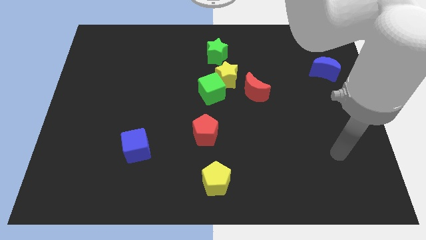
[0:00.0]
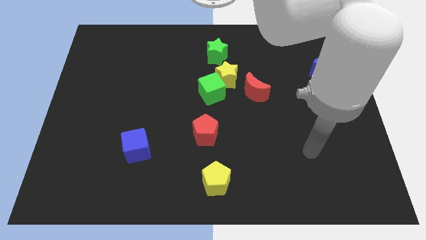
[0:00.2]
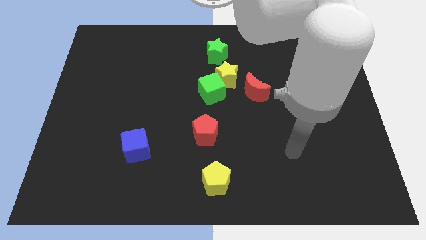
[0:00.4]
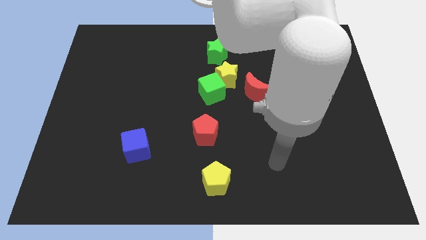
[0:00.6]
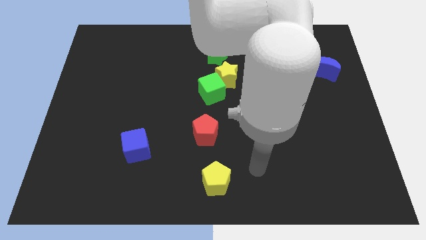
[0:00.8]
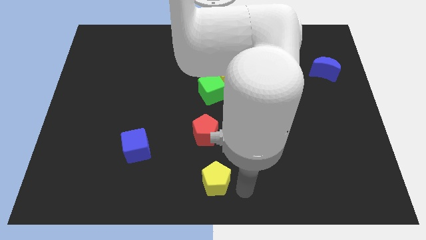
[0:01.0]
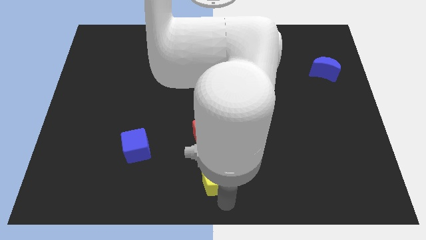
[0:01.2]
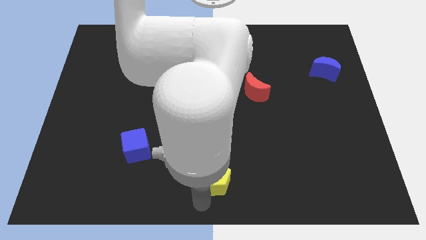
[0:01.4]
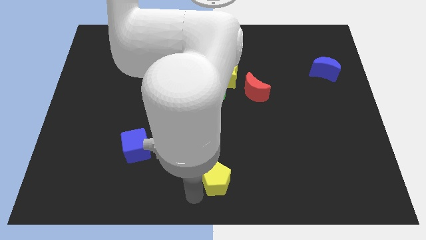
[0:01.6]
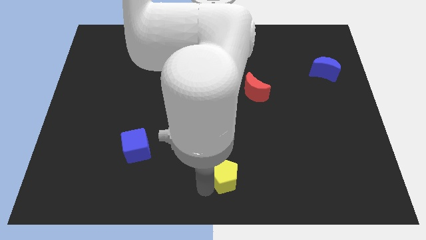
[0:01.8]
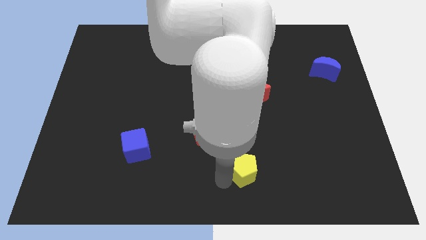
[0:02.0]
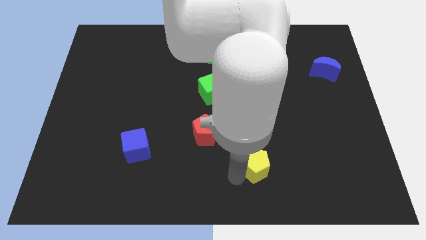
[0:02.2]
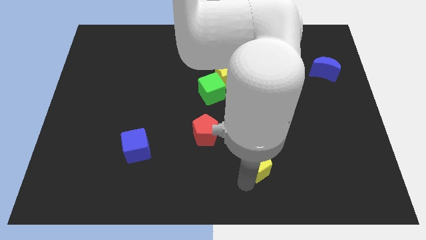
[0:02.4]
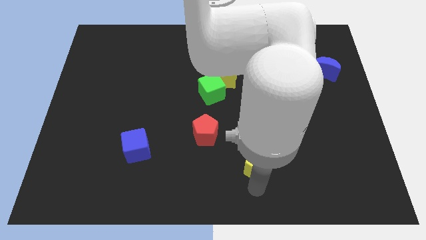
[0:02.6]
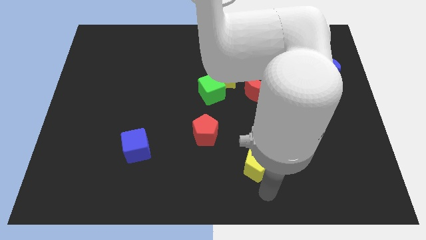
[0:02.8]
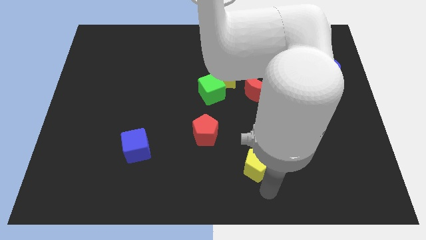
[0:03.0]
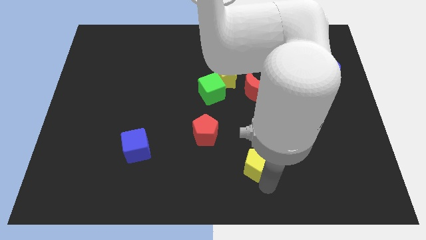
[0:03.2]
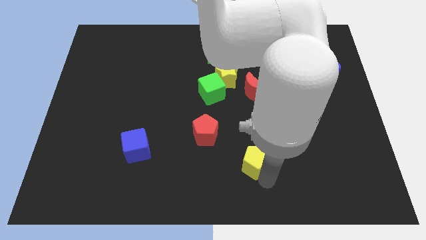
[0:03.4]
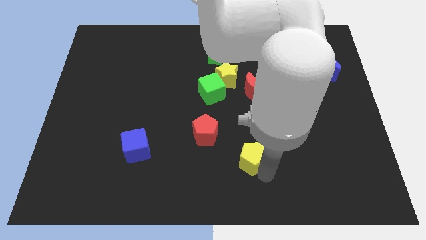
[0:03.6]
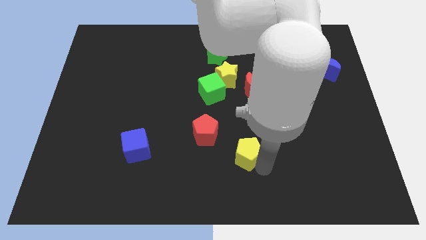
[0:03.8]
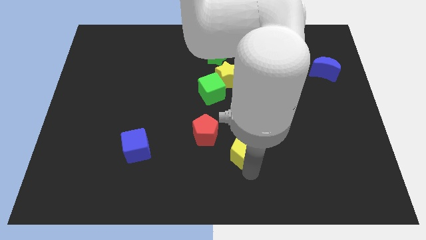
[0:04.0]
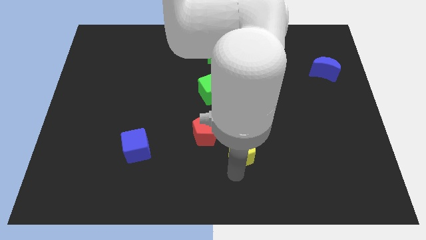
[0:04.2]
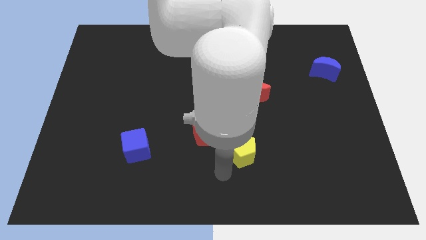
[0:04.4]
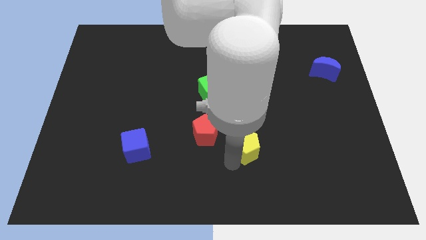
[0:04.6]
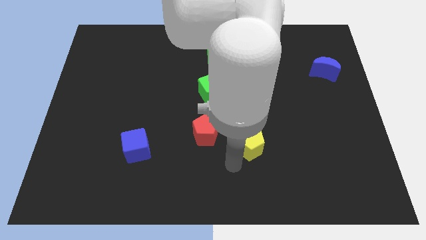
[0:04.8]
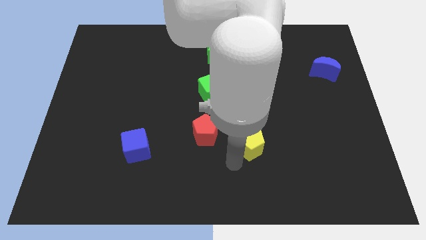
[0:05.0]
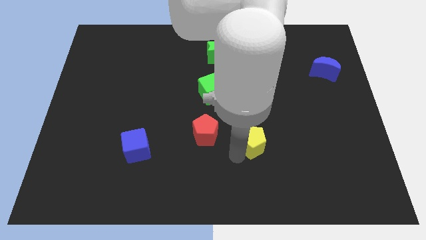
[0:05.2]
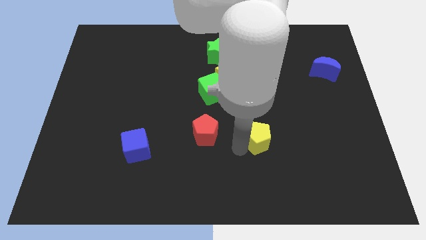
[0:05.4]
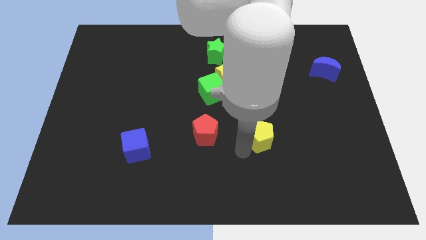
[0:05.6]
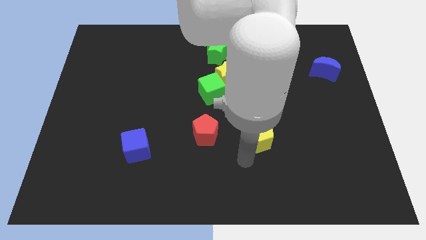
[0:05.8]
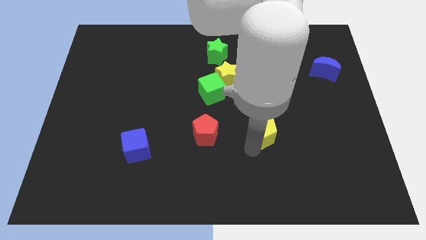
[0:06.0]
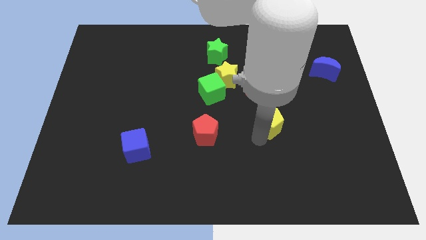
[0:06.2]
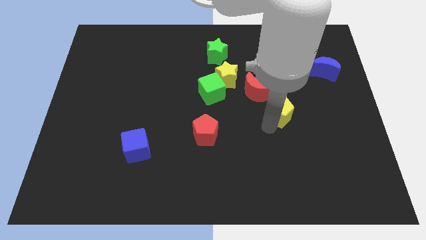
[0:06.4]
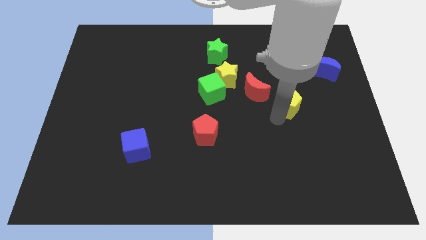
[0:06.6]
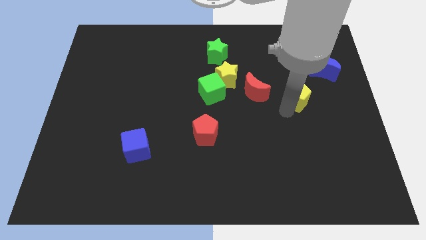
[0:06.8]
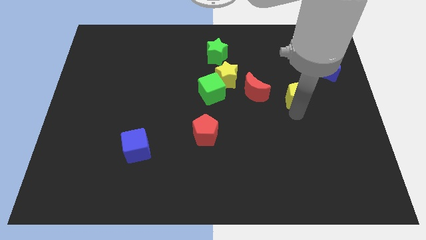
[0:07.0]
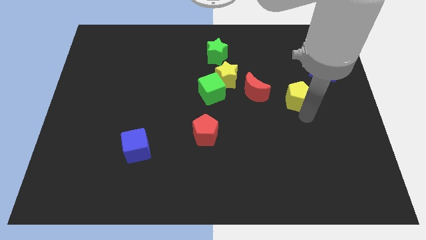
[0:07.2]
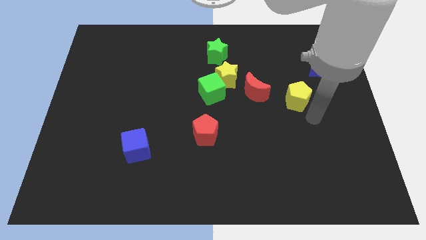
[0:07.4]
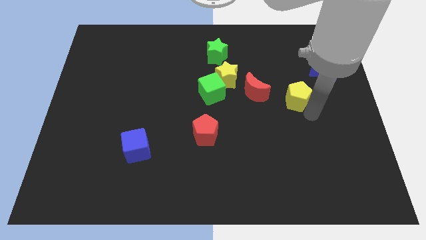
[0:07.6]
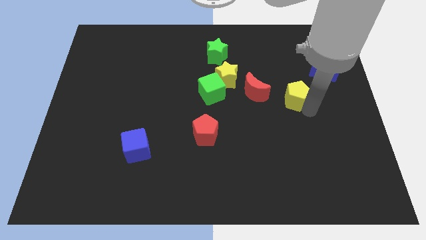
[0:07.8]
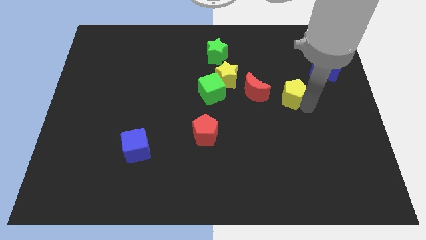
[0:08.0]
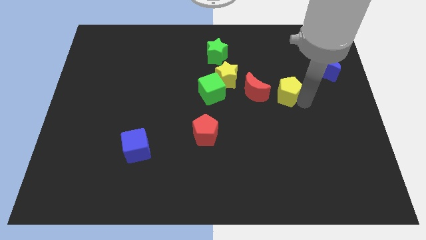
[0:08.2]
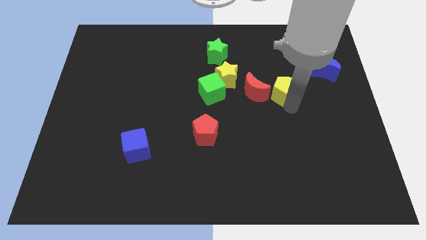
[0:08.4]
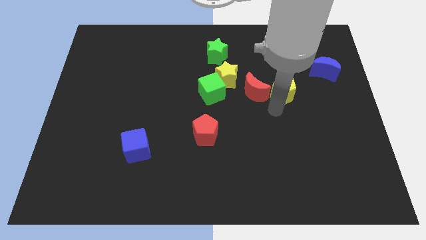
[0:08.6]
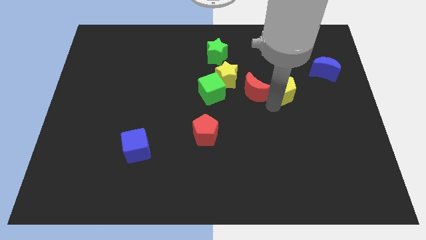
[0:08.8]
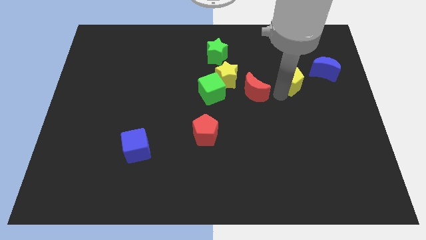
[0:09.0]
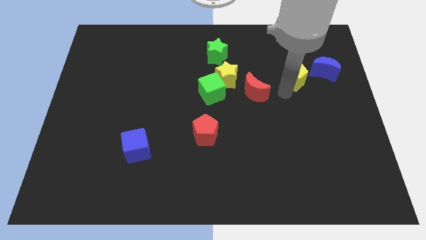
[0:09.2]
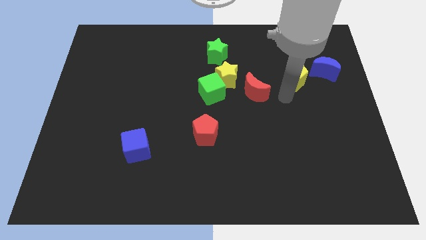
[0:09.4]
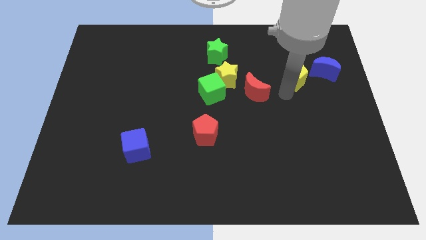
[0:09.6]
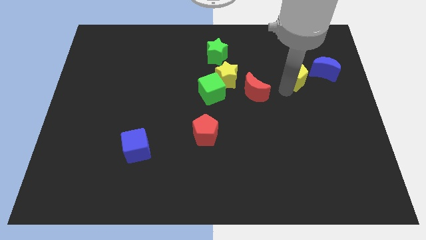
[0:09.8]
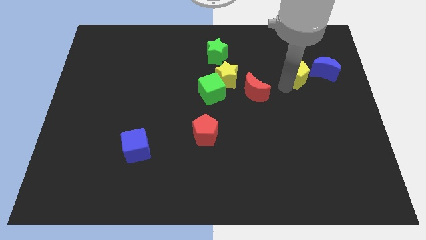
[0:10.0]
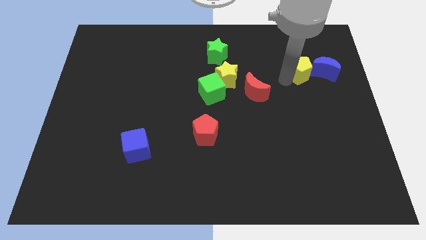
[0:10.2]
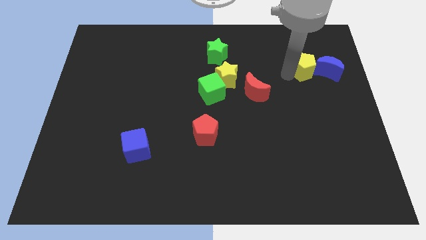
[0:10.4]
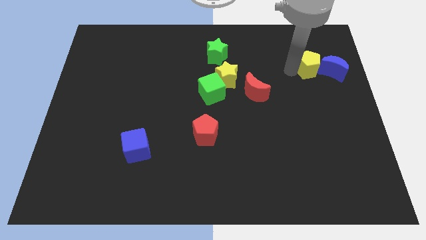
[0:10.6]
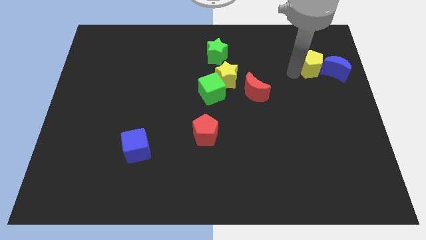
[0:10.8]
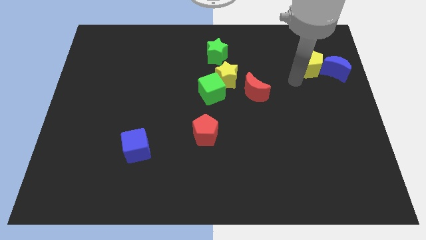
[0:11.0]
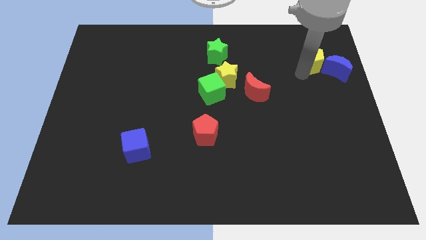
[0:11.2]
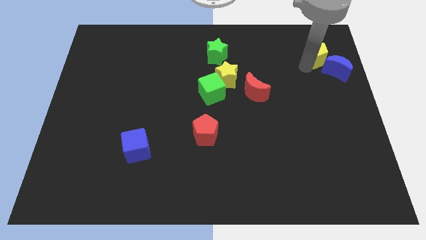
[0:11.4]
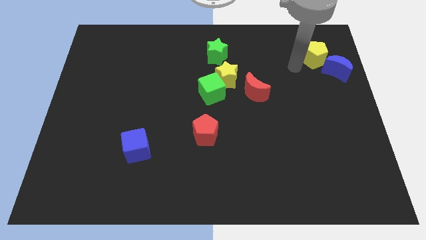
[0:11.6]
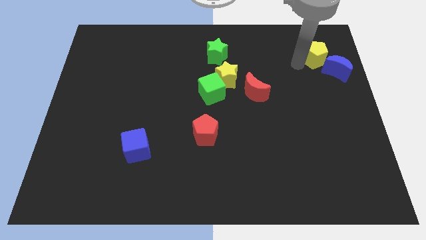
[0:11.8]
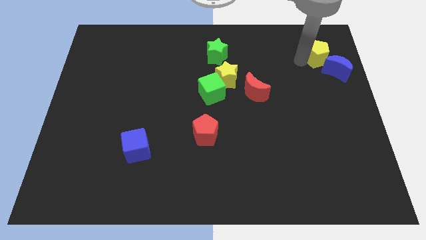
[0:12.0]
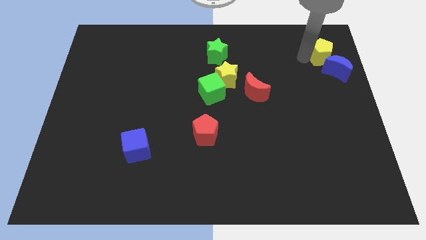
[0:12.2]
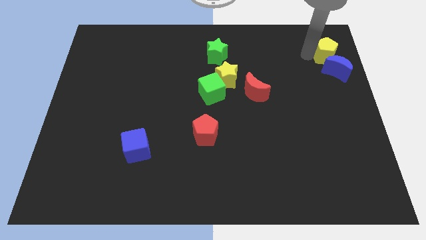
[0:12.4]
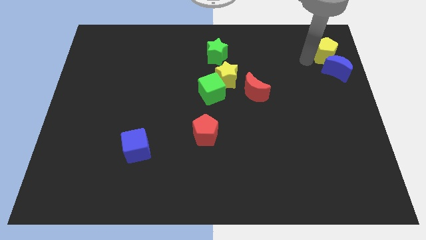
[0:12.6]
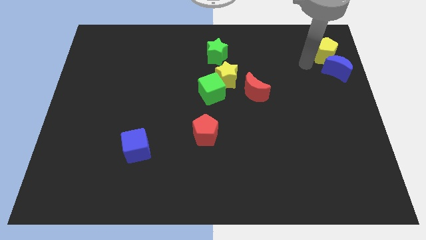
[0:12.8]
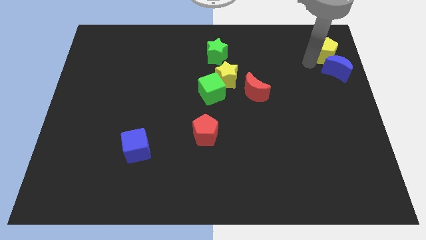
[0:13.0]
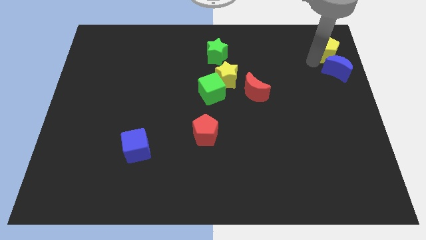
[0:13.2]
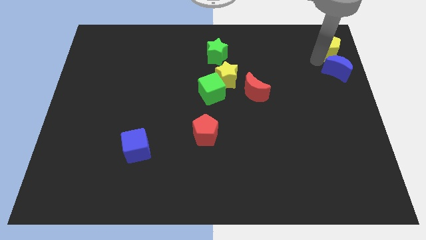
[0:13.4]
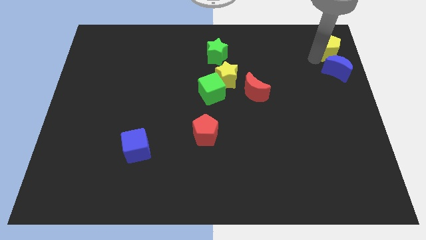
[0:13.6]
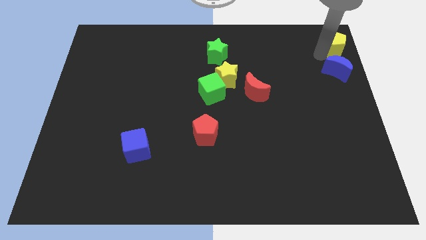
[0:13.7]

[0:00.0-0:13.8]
push the yellow pentagon to the top right

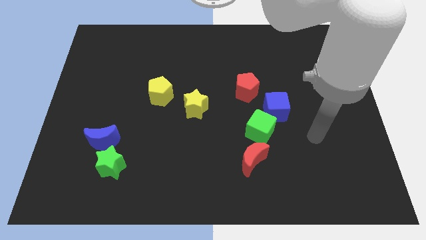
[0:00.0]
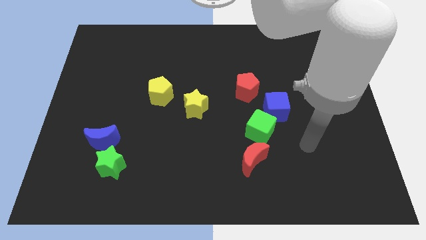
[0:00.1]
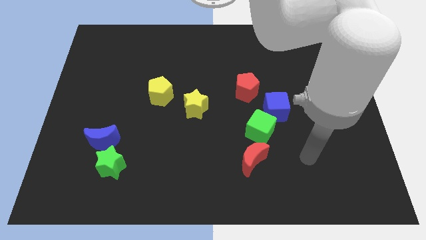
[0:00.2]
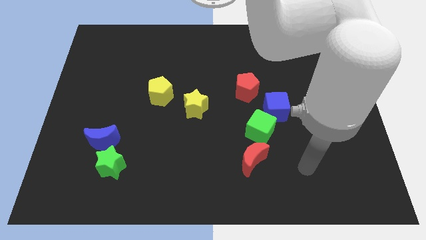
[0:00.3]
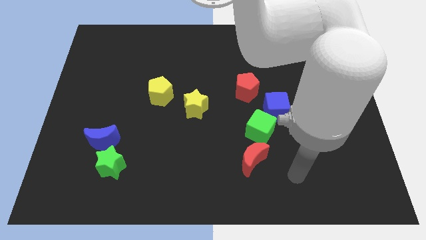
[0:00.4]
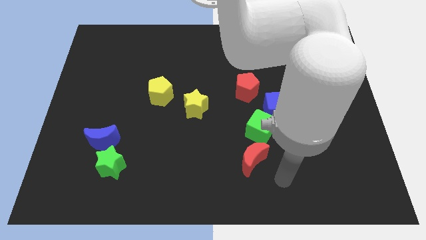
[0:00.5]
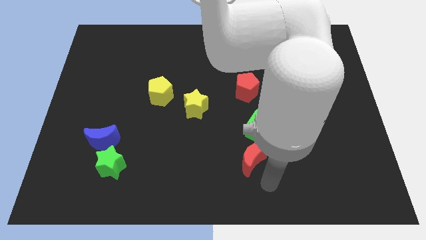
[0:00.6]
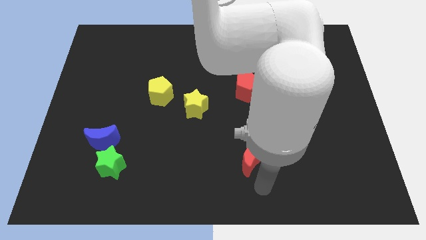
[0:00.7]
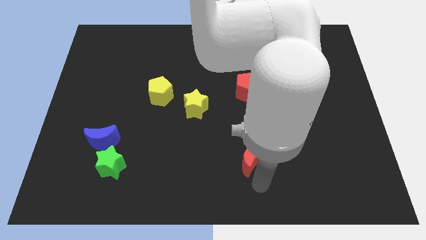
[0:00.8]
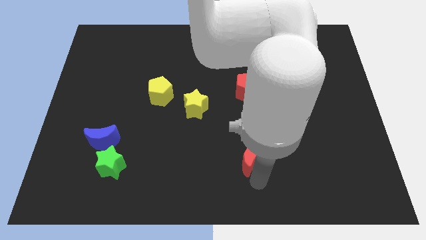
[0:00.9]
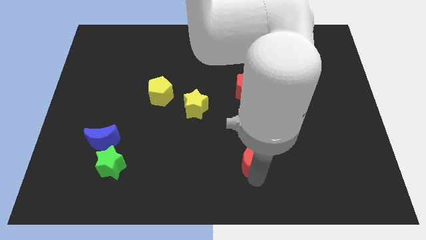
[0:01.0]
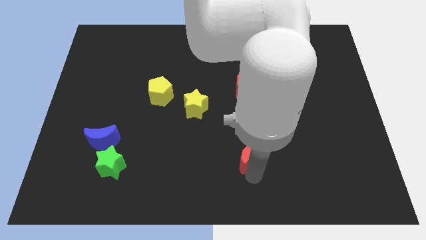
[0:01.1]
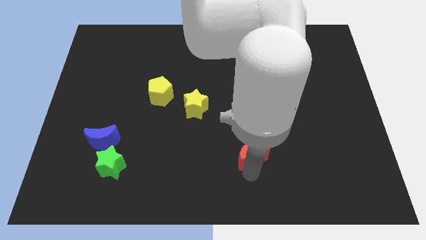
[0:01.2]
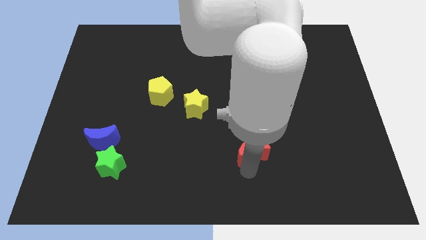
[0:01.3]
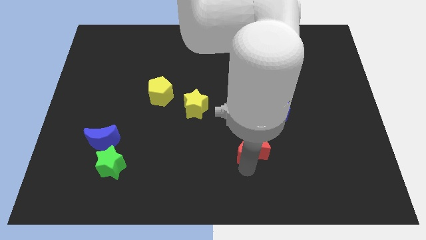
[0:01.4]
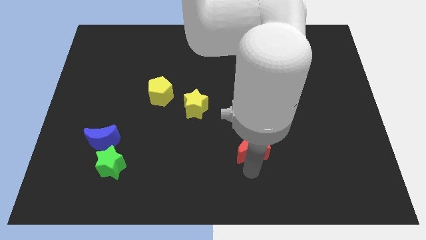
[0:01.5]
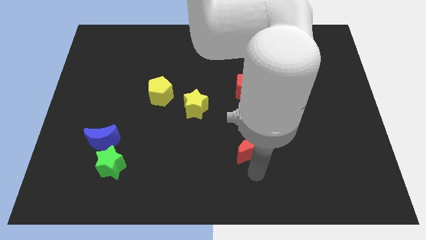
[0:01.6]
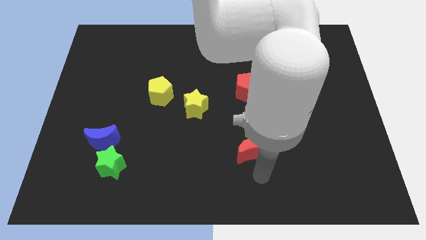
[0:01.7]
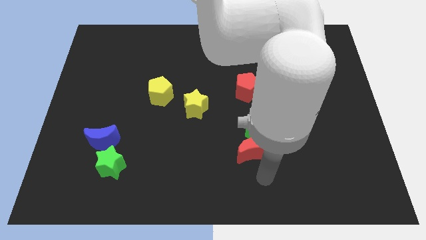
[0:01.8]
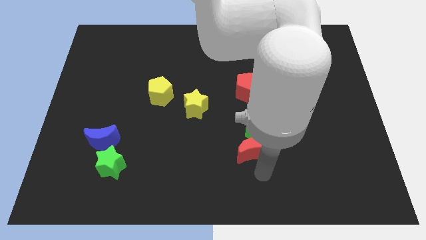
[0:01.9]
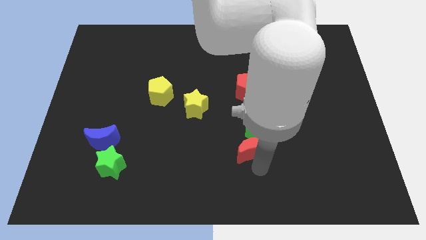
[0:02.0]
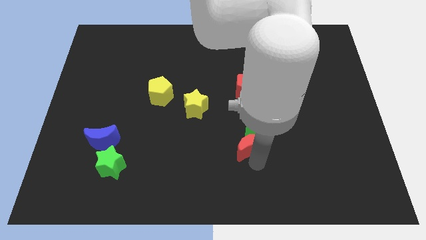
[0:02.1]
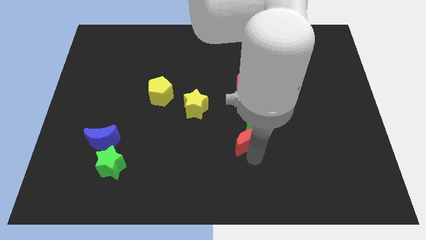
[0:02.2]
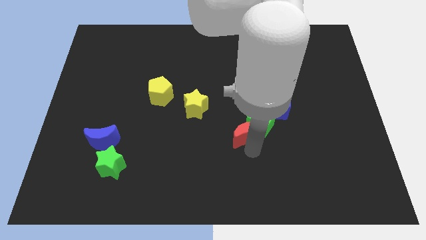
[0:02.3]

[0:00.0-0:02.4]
put the red moon to the middle
